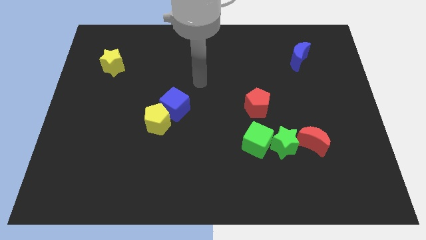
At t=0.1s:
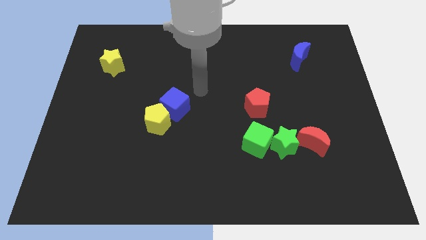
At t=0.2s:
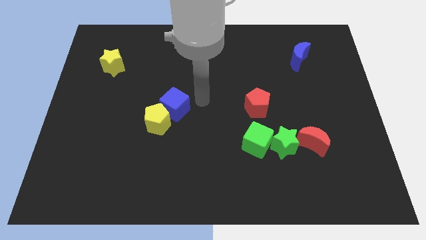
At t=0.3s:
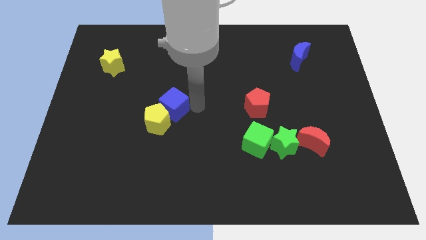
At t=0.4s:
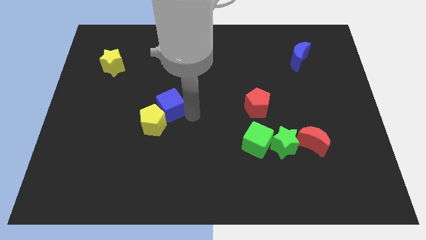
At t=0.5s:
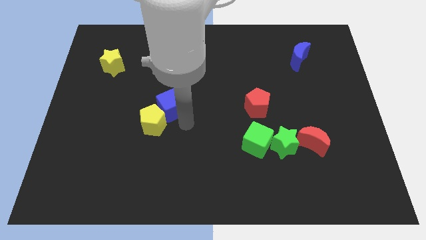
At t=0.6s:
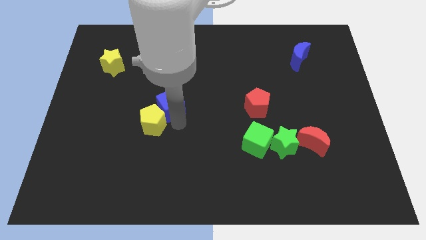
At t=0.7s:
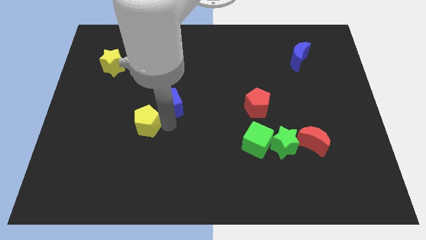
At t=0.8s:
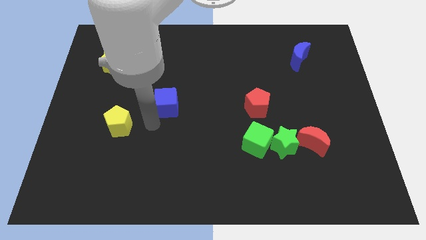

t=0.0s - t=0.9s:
move the blue cube away from the yellow pentagon

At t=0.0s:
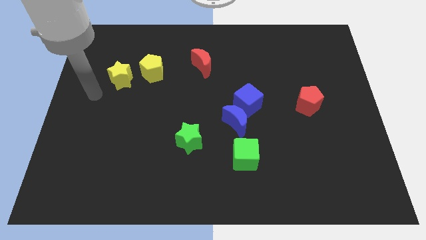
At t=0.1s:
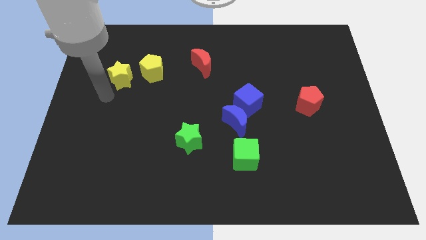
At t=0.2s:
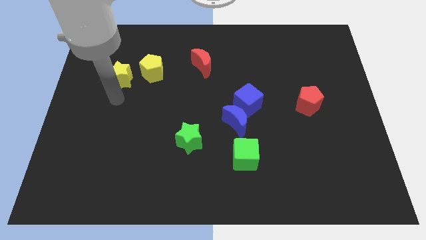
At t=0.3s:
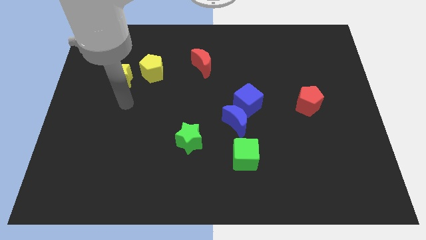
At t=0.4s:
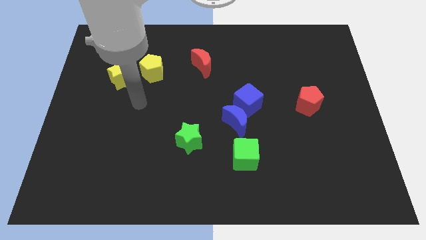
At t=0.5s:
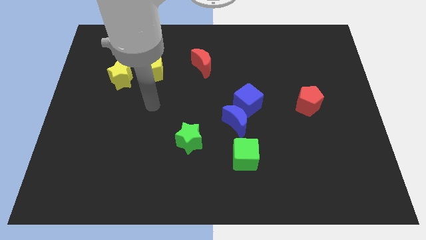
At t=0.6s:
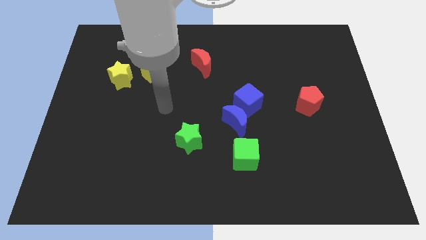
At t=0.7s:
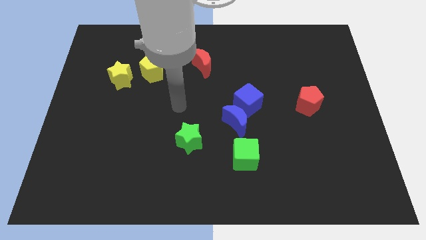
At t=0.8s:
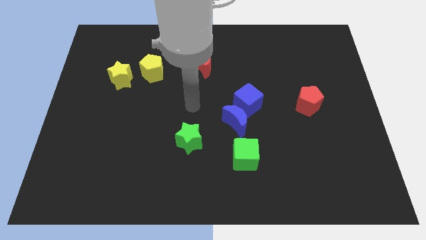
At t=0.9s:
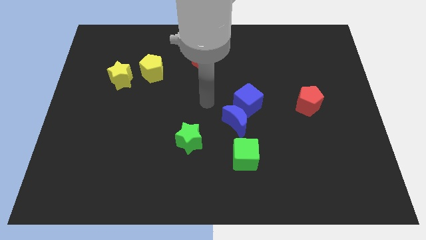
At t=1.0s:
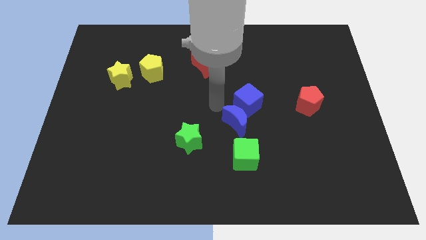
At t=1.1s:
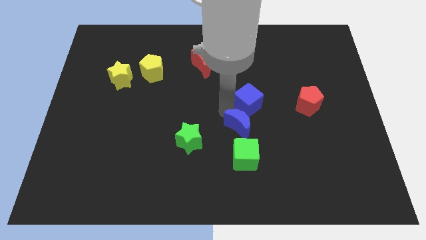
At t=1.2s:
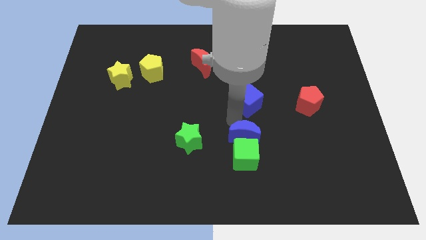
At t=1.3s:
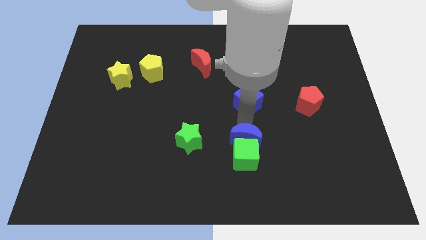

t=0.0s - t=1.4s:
pull the blue cube apart from the blue moon

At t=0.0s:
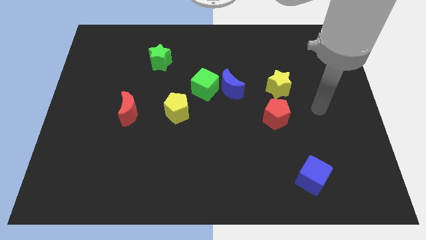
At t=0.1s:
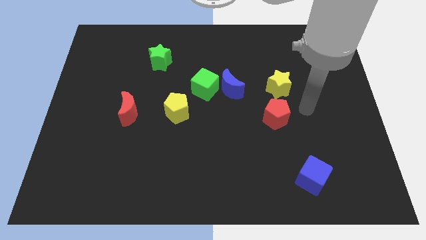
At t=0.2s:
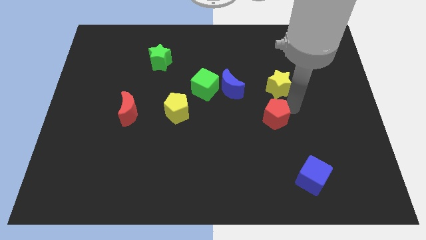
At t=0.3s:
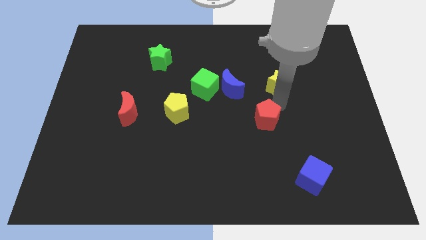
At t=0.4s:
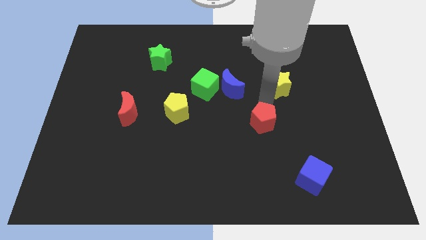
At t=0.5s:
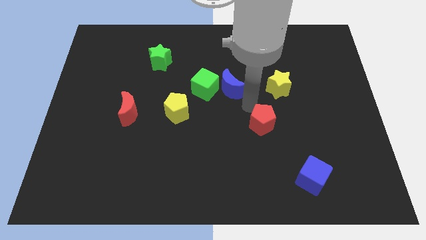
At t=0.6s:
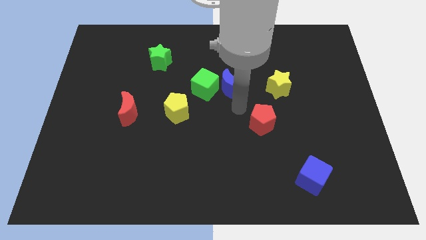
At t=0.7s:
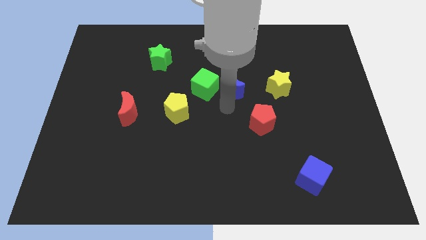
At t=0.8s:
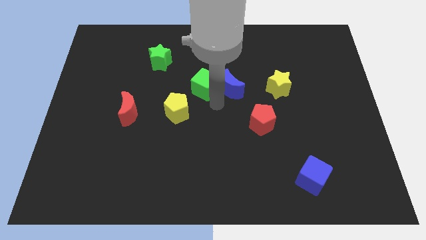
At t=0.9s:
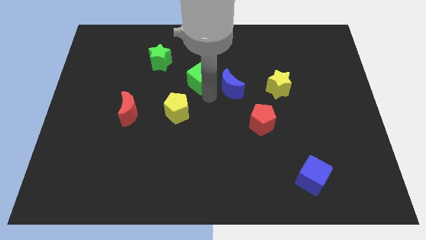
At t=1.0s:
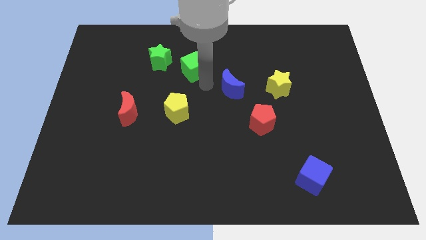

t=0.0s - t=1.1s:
separate the blue moon from the green cube

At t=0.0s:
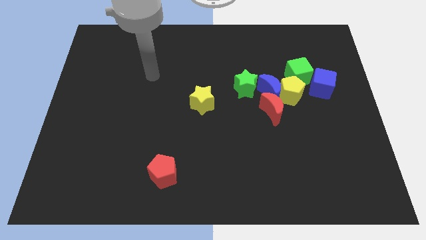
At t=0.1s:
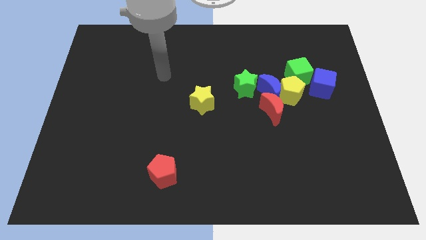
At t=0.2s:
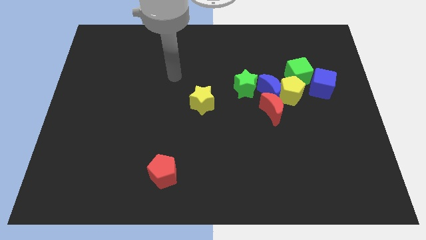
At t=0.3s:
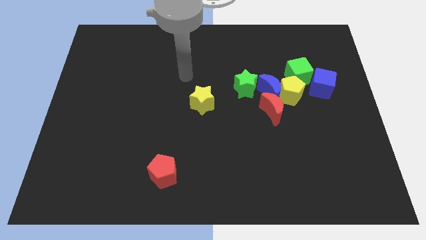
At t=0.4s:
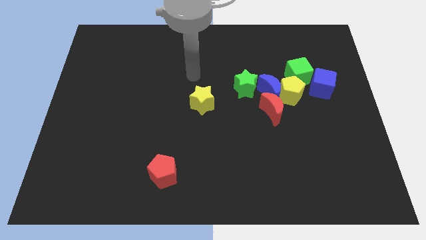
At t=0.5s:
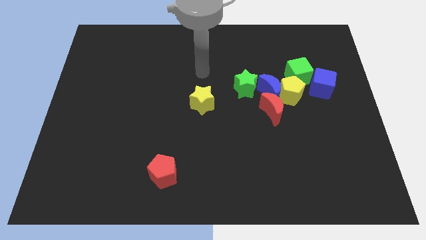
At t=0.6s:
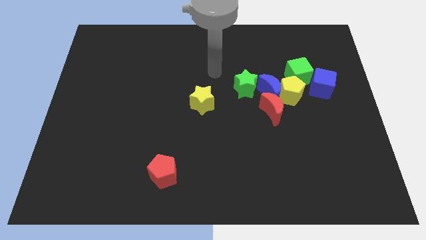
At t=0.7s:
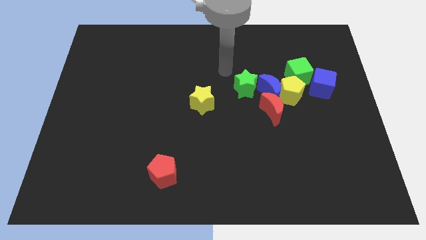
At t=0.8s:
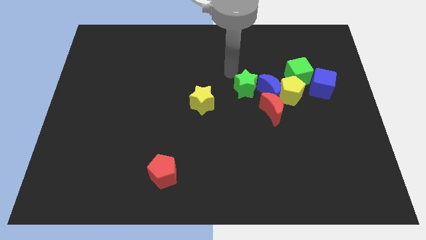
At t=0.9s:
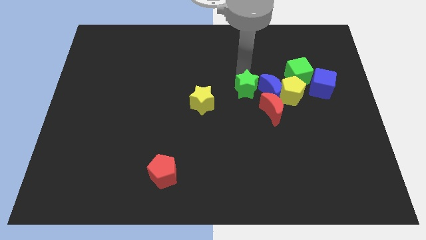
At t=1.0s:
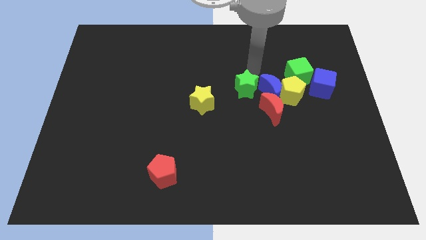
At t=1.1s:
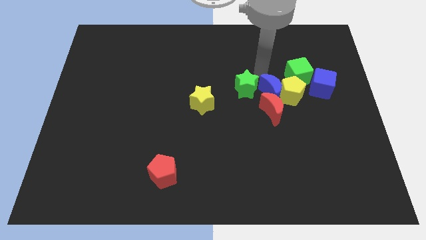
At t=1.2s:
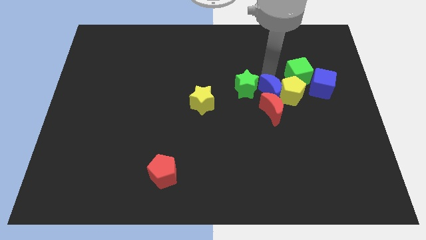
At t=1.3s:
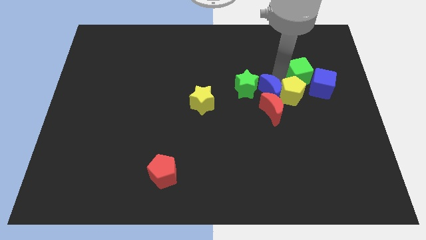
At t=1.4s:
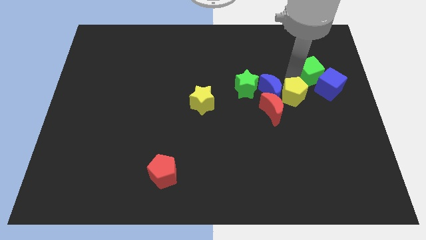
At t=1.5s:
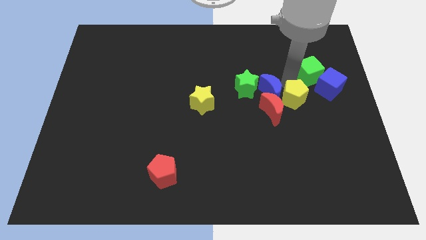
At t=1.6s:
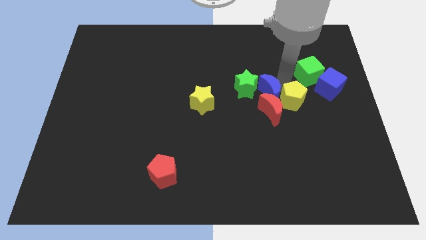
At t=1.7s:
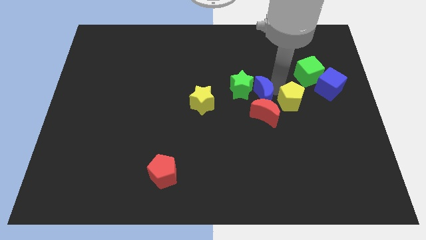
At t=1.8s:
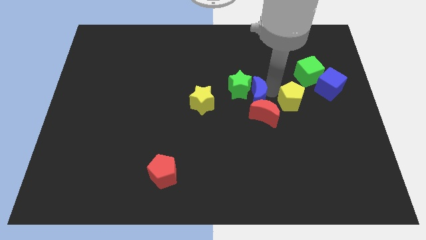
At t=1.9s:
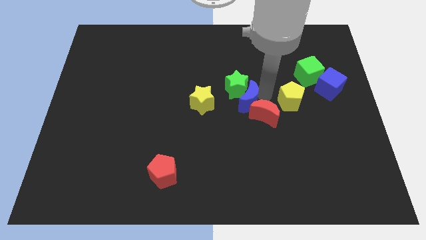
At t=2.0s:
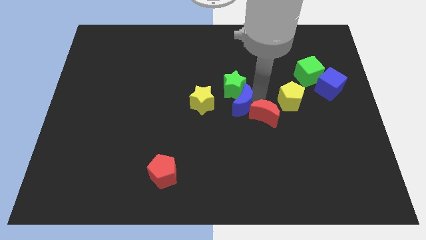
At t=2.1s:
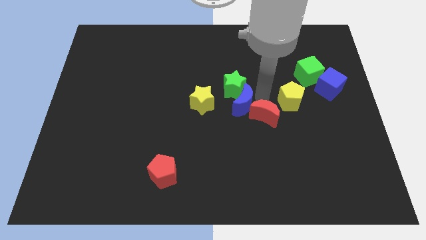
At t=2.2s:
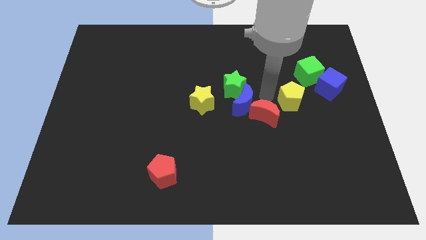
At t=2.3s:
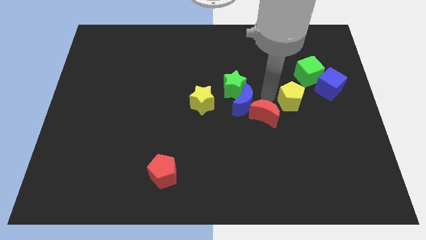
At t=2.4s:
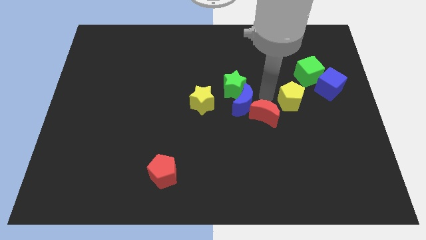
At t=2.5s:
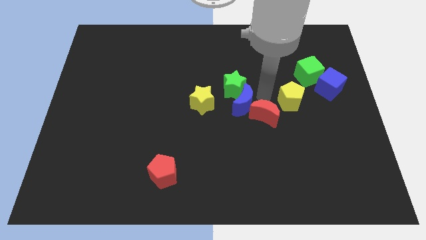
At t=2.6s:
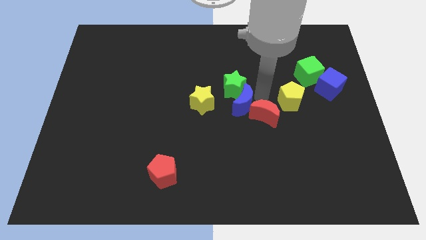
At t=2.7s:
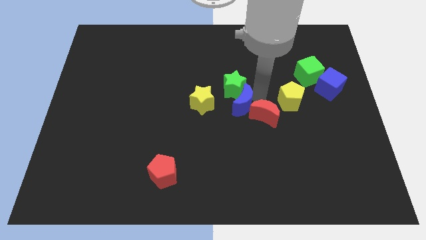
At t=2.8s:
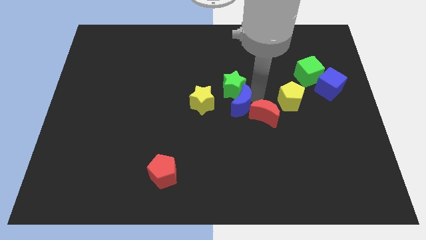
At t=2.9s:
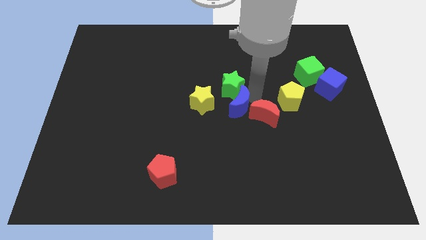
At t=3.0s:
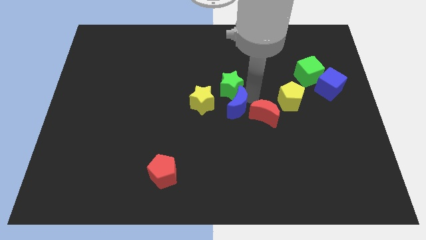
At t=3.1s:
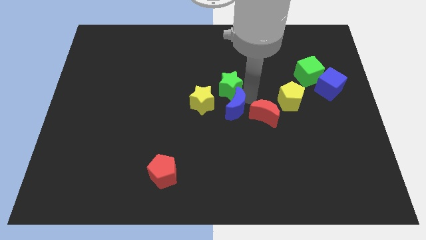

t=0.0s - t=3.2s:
move the blue moon away from the group of blocks

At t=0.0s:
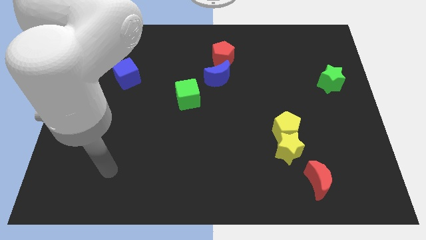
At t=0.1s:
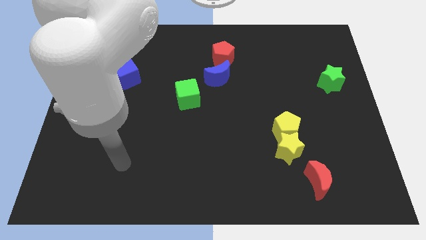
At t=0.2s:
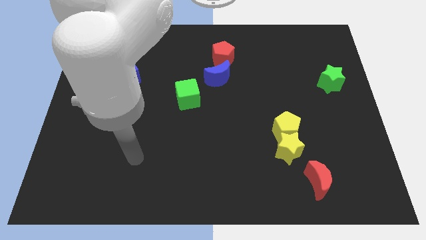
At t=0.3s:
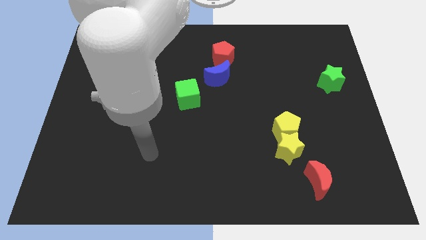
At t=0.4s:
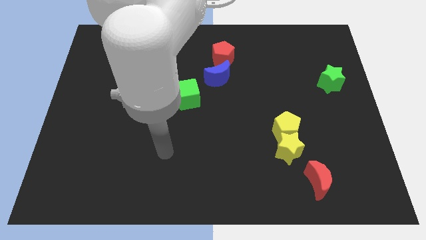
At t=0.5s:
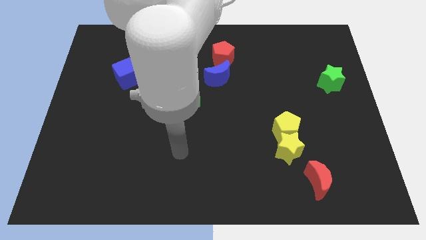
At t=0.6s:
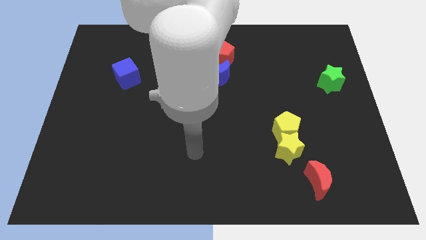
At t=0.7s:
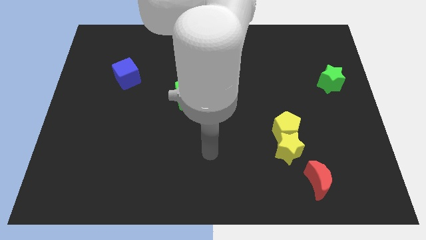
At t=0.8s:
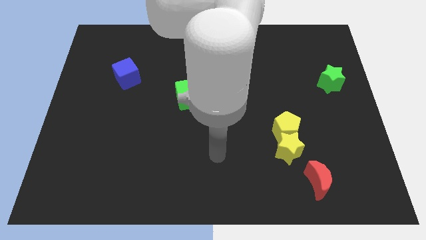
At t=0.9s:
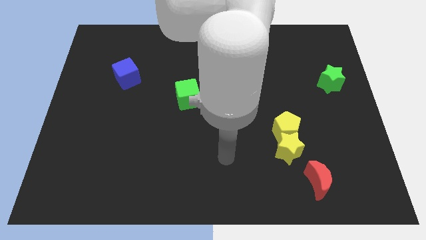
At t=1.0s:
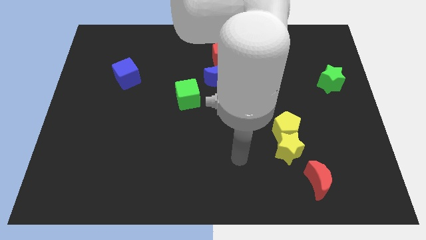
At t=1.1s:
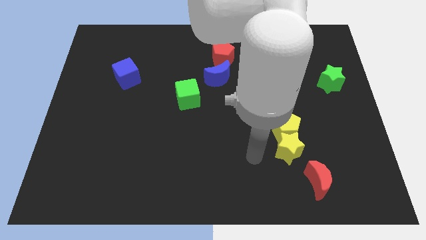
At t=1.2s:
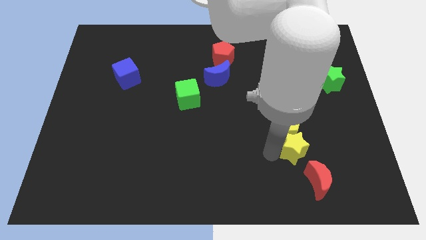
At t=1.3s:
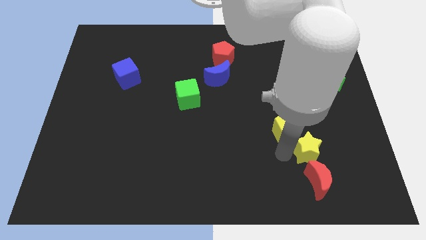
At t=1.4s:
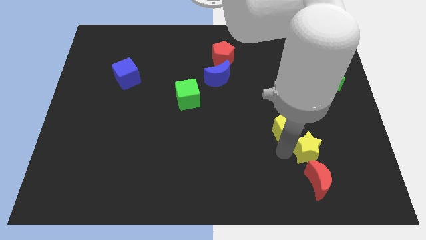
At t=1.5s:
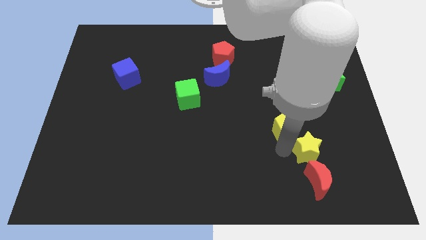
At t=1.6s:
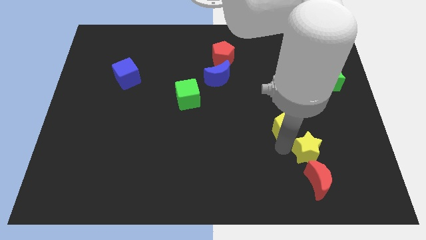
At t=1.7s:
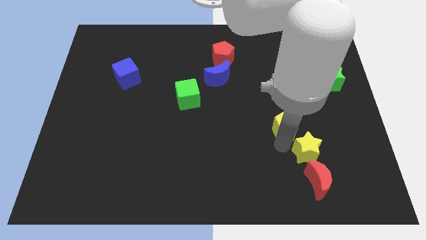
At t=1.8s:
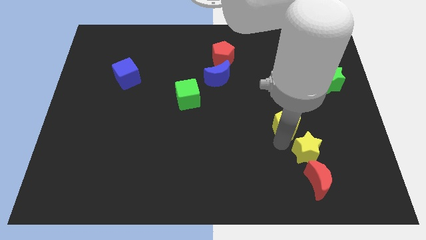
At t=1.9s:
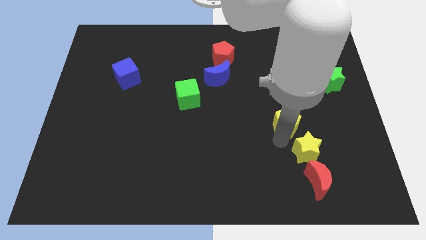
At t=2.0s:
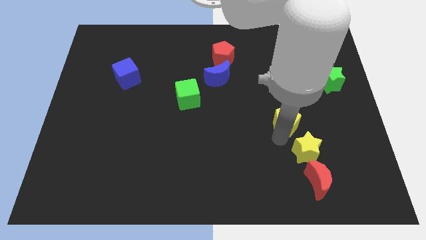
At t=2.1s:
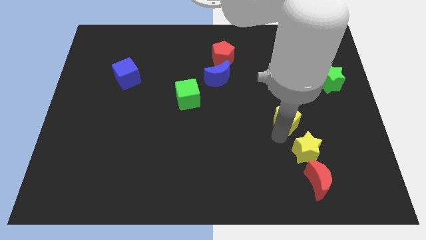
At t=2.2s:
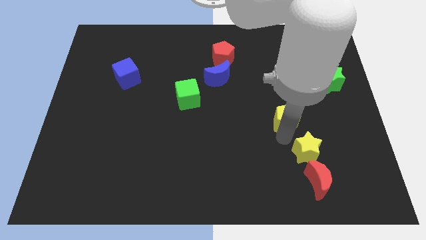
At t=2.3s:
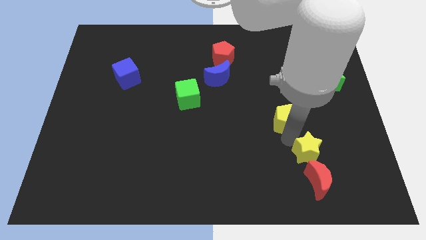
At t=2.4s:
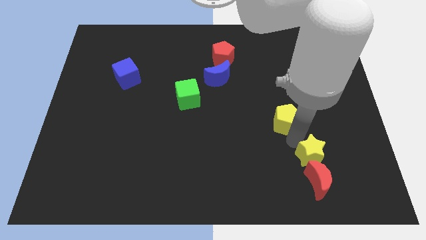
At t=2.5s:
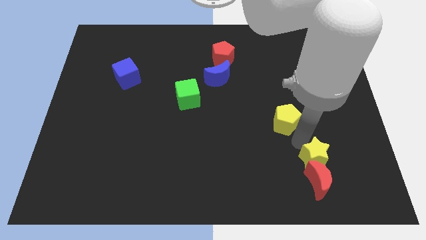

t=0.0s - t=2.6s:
move the yellow pentagon away from the yellow star

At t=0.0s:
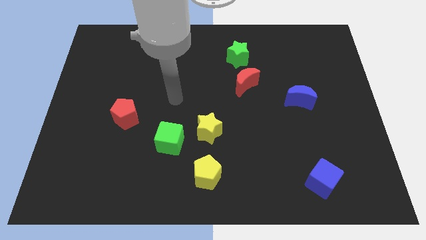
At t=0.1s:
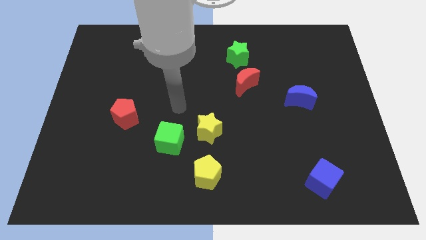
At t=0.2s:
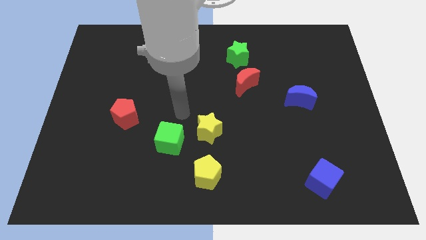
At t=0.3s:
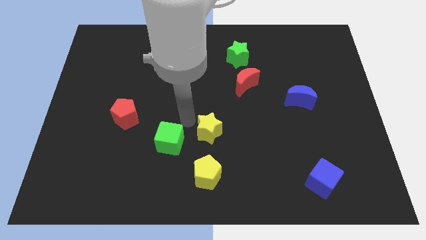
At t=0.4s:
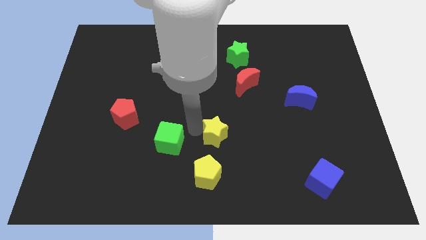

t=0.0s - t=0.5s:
pull the green cube apart from the yellow star
